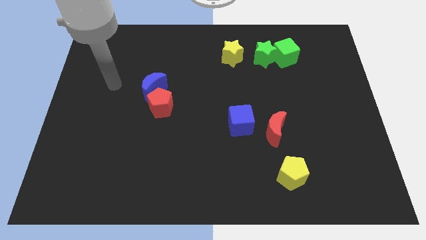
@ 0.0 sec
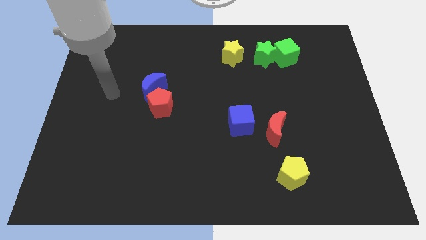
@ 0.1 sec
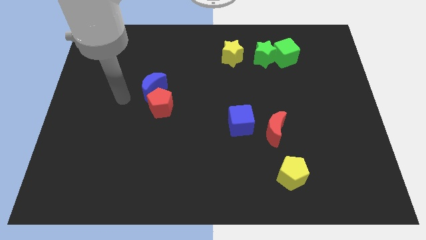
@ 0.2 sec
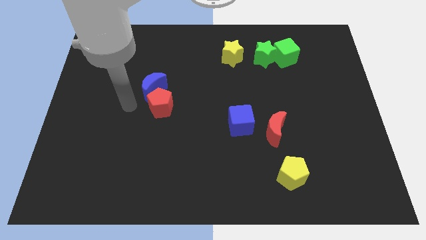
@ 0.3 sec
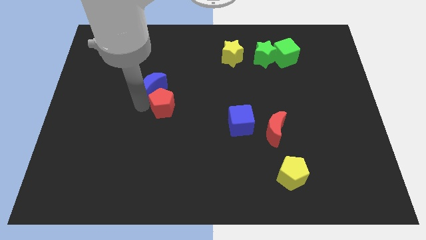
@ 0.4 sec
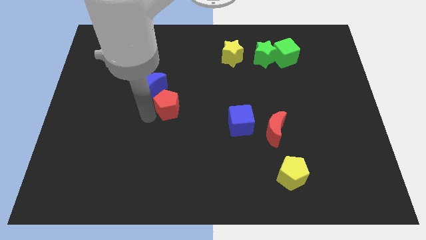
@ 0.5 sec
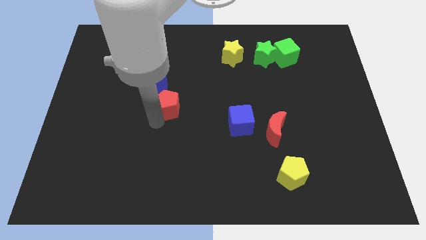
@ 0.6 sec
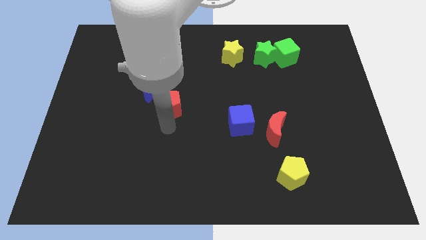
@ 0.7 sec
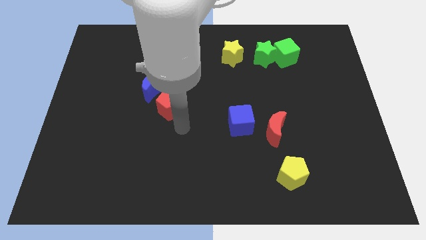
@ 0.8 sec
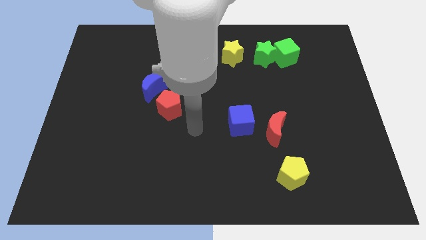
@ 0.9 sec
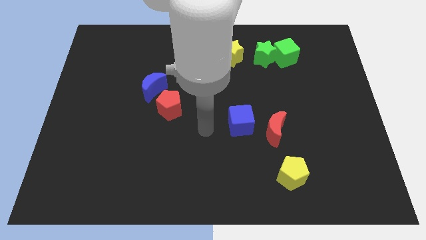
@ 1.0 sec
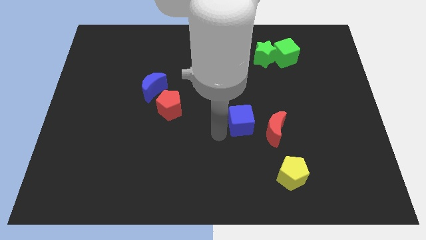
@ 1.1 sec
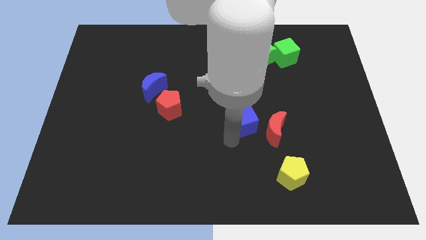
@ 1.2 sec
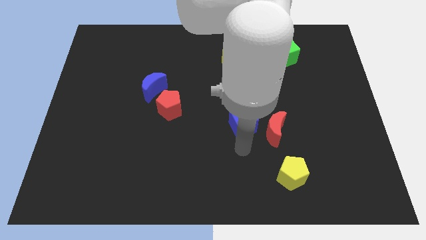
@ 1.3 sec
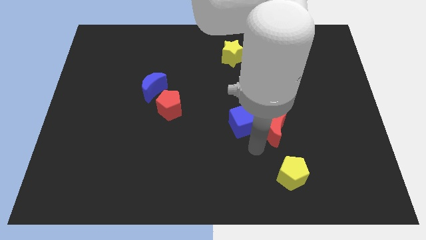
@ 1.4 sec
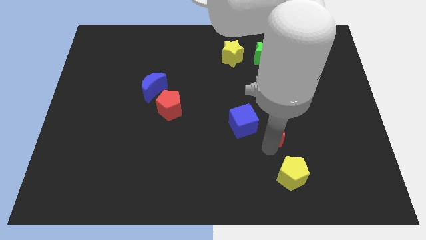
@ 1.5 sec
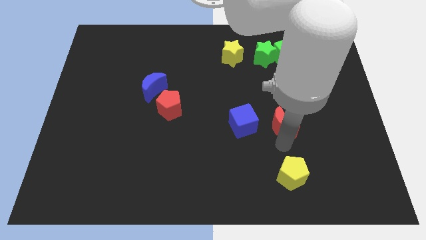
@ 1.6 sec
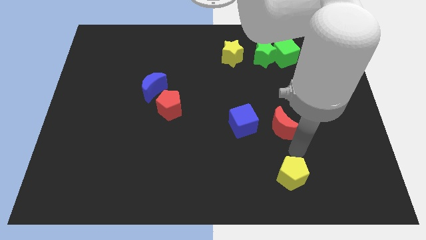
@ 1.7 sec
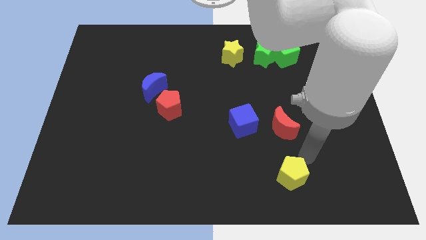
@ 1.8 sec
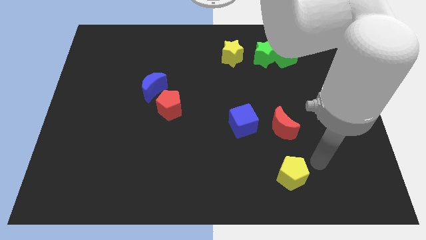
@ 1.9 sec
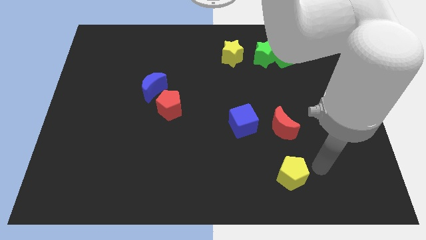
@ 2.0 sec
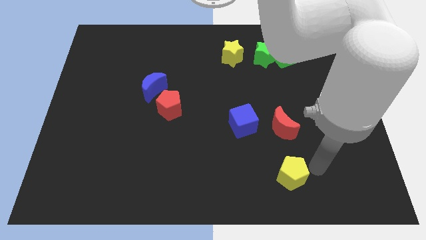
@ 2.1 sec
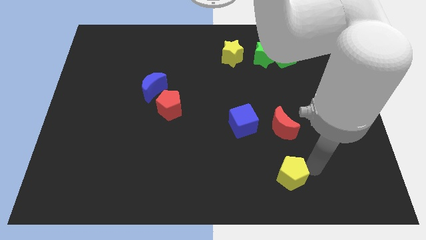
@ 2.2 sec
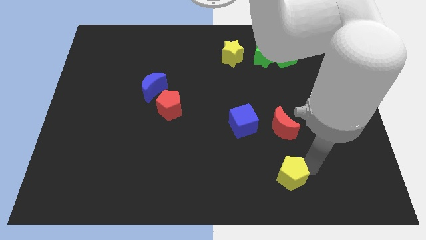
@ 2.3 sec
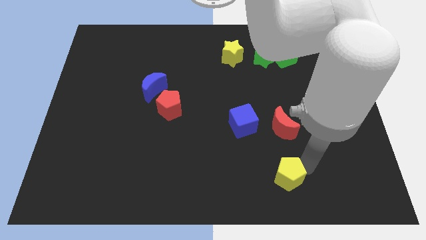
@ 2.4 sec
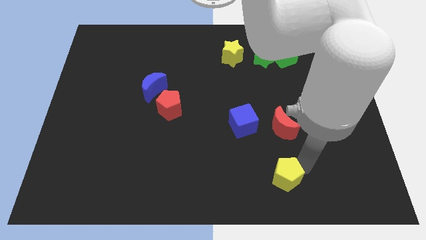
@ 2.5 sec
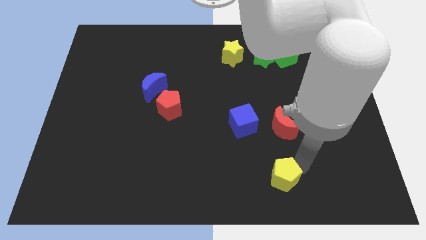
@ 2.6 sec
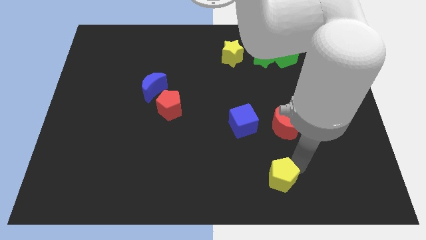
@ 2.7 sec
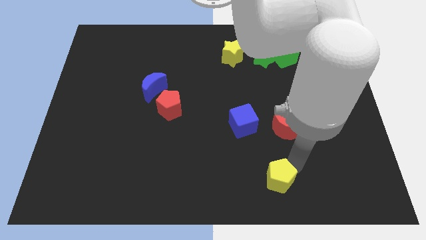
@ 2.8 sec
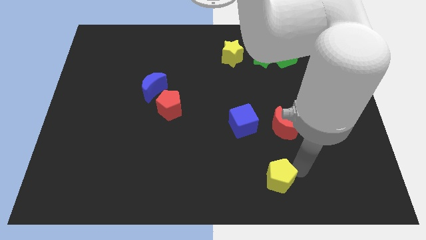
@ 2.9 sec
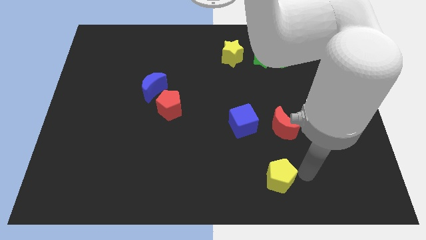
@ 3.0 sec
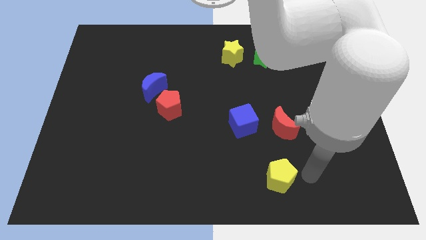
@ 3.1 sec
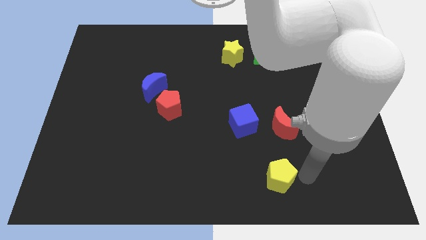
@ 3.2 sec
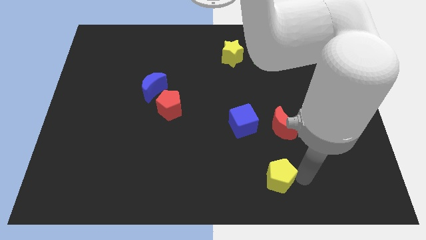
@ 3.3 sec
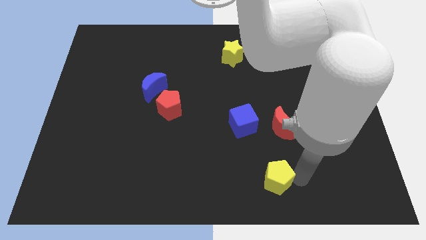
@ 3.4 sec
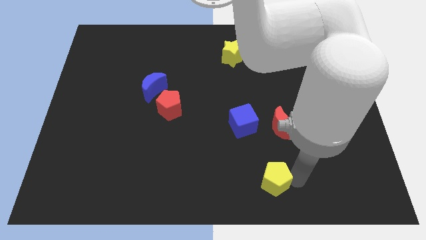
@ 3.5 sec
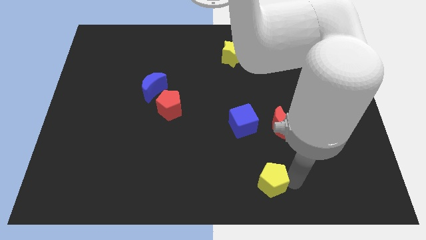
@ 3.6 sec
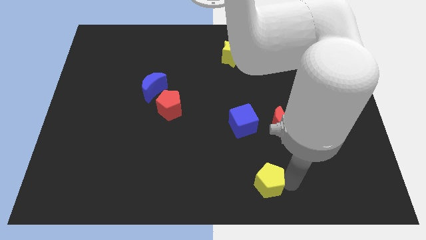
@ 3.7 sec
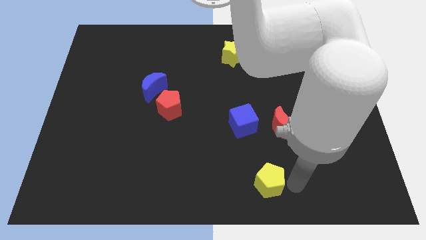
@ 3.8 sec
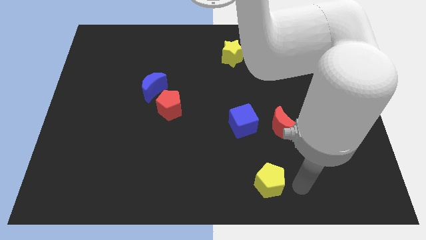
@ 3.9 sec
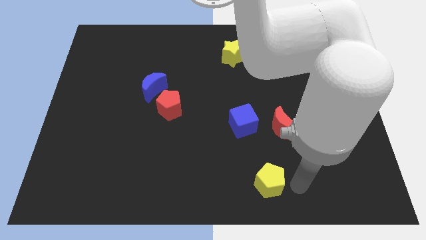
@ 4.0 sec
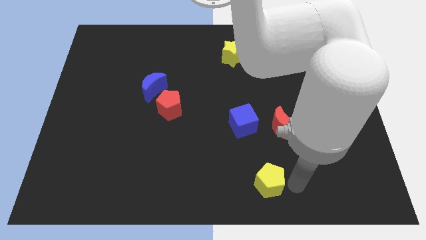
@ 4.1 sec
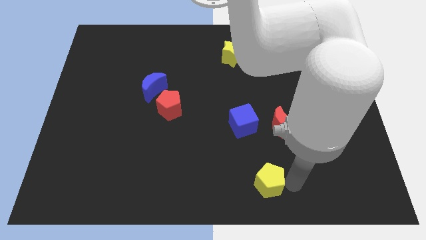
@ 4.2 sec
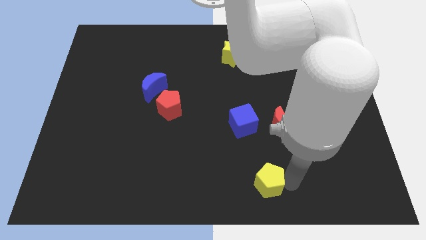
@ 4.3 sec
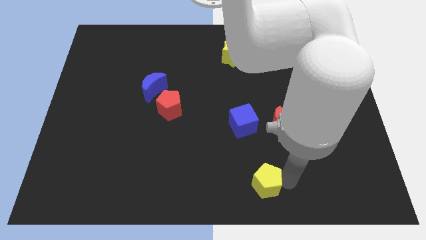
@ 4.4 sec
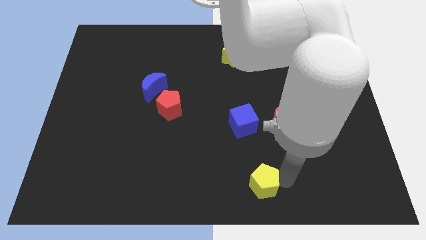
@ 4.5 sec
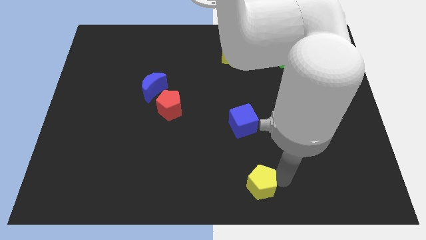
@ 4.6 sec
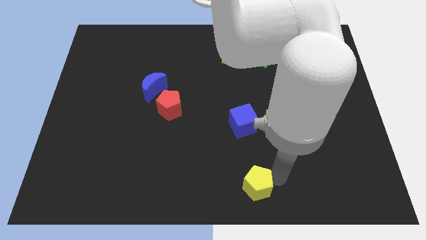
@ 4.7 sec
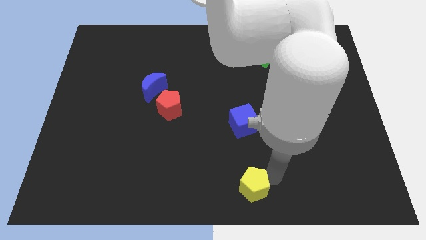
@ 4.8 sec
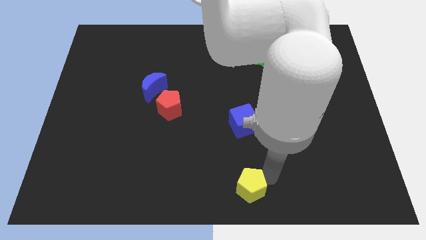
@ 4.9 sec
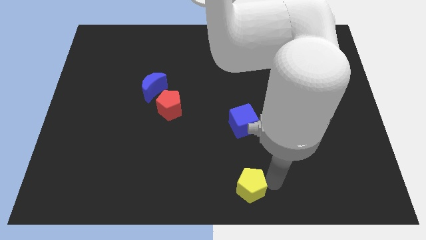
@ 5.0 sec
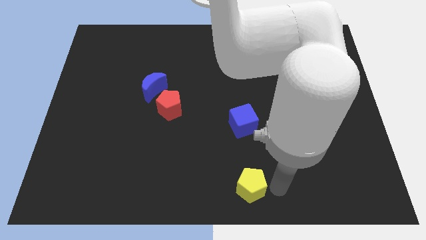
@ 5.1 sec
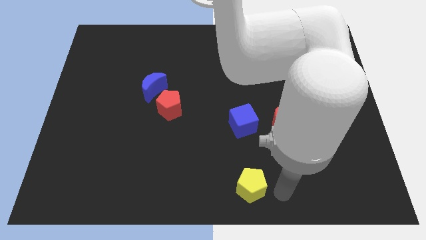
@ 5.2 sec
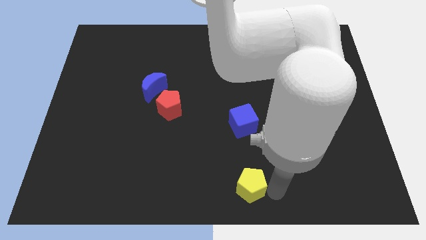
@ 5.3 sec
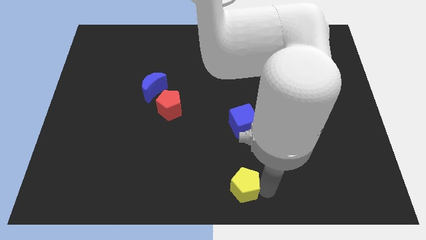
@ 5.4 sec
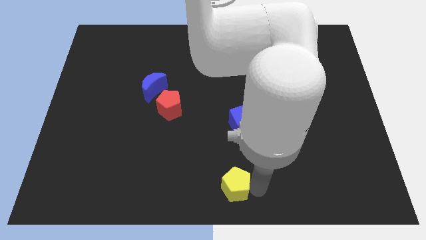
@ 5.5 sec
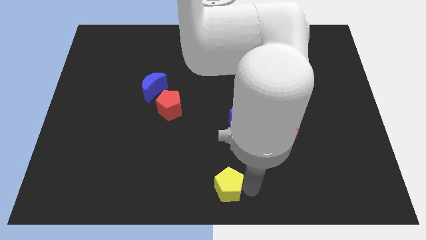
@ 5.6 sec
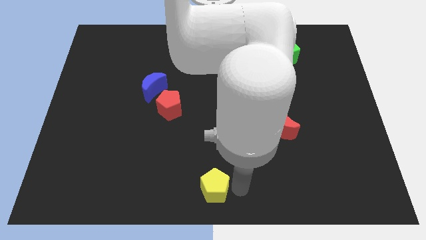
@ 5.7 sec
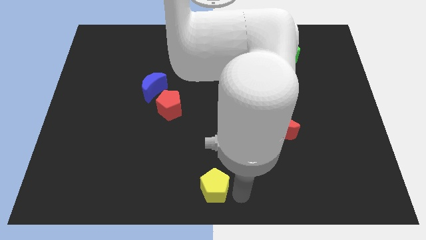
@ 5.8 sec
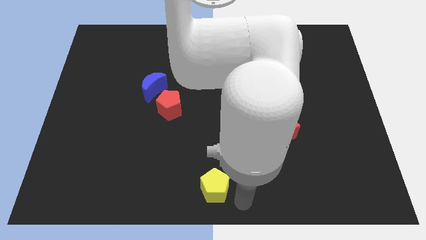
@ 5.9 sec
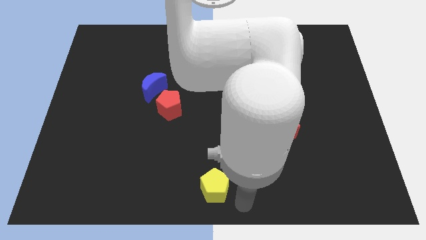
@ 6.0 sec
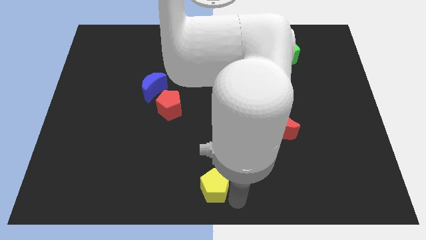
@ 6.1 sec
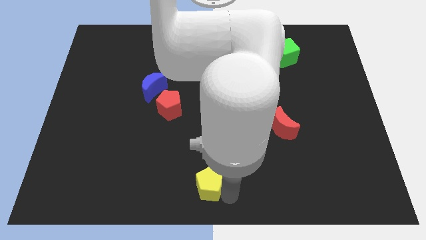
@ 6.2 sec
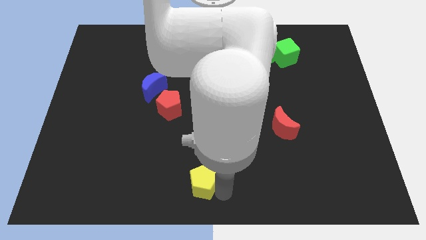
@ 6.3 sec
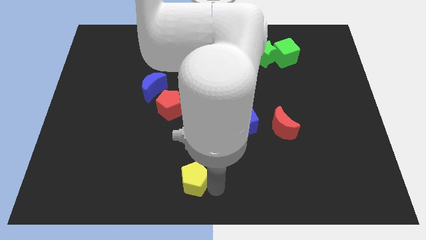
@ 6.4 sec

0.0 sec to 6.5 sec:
push the yellow pentagon left

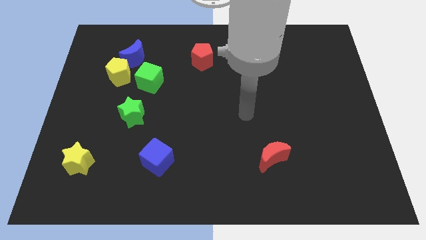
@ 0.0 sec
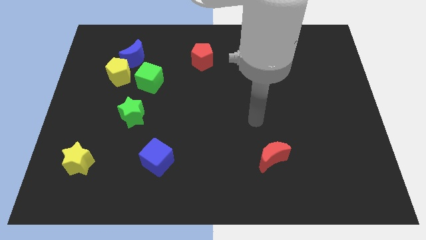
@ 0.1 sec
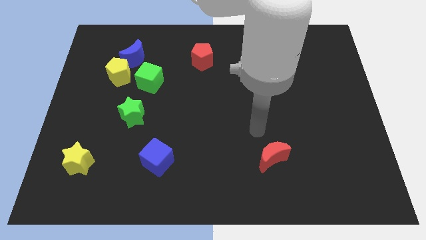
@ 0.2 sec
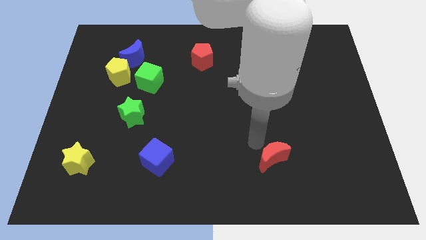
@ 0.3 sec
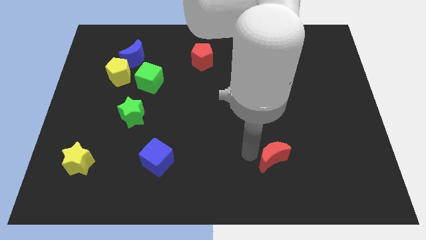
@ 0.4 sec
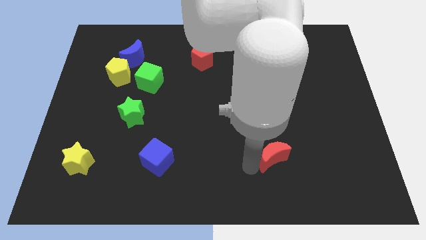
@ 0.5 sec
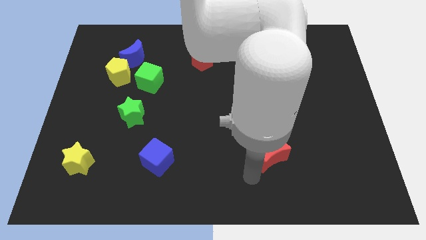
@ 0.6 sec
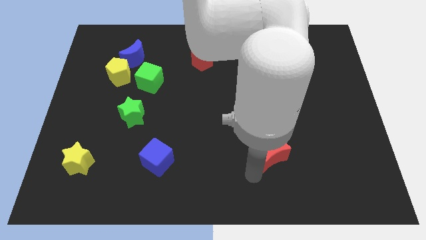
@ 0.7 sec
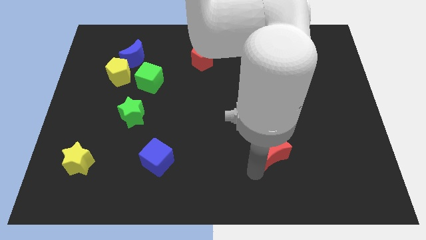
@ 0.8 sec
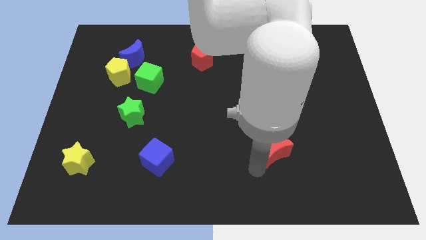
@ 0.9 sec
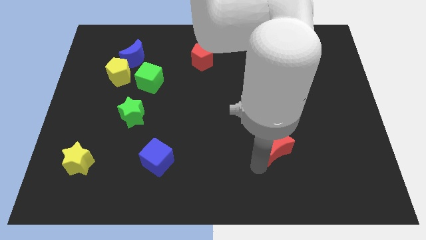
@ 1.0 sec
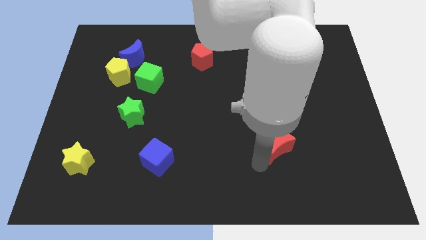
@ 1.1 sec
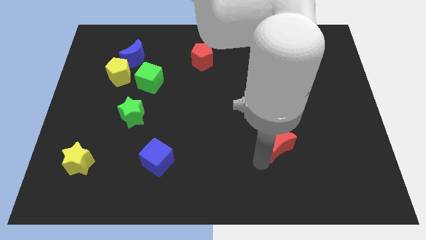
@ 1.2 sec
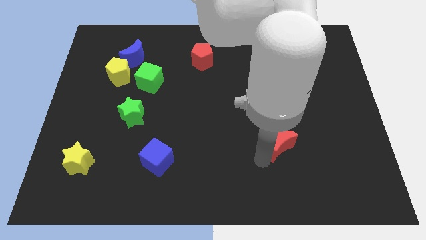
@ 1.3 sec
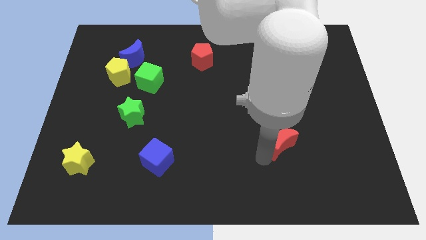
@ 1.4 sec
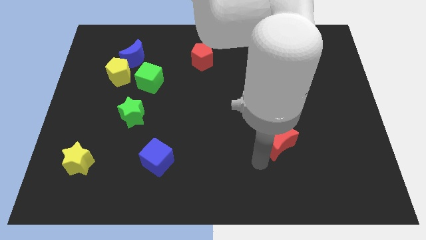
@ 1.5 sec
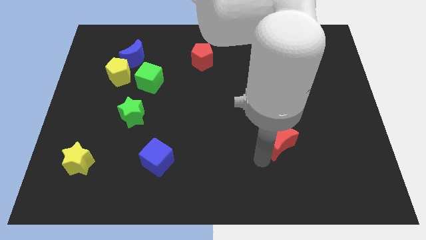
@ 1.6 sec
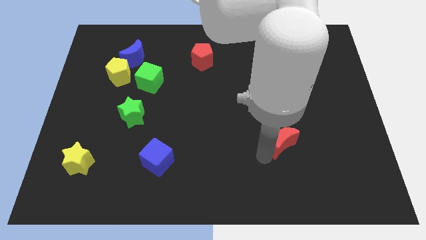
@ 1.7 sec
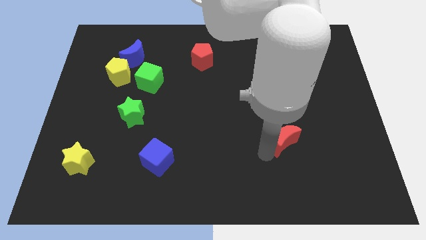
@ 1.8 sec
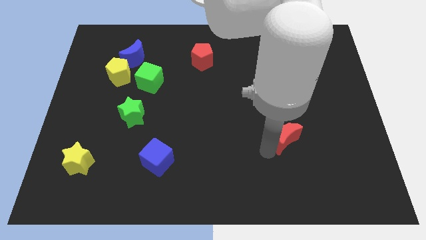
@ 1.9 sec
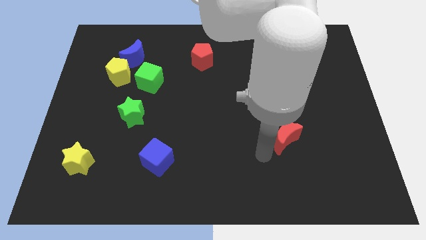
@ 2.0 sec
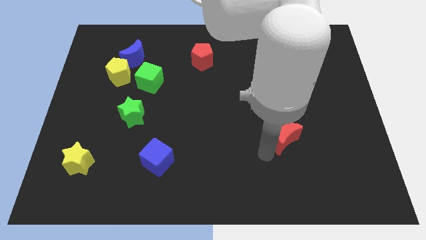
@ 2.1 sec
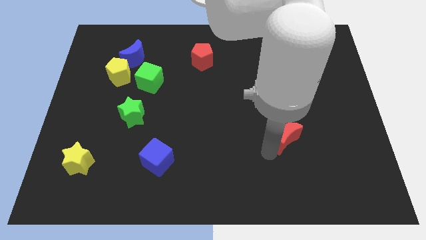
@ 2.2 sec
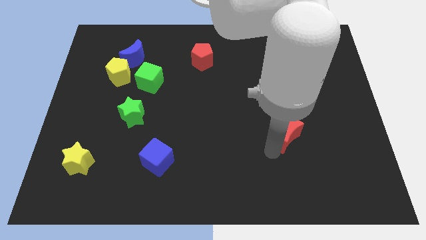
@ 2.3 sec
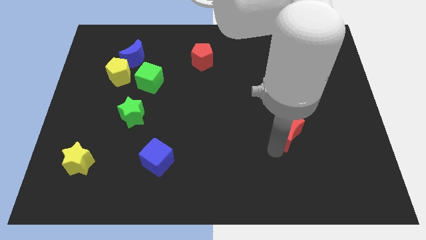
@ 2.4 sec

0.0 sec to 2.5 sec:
slightly move the red moon up and right diagonally
